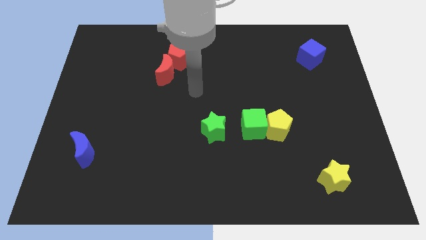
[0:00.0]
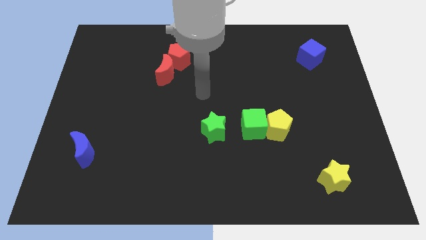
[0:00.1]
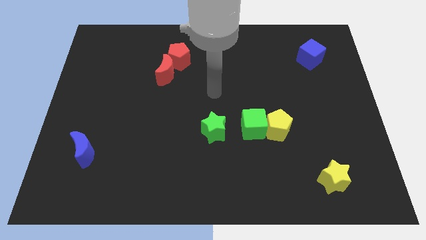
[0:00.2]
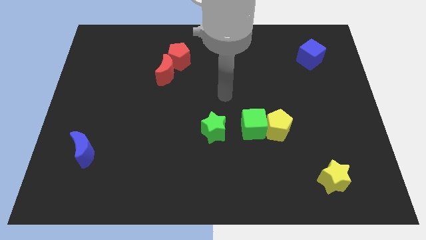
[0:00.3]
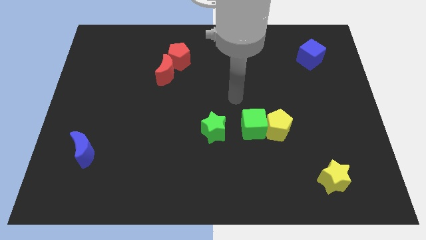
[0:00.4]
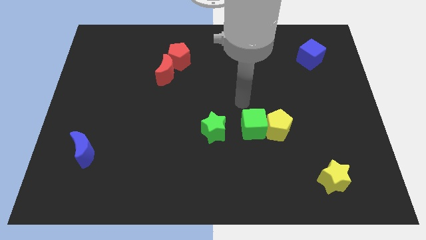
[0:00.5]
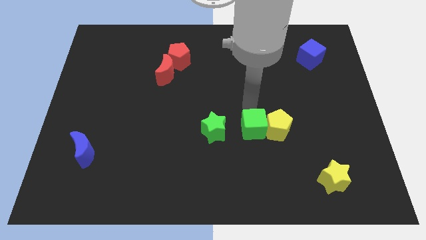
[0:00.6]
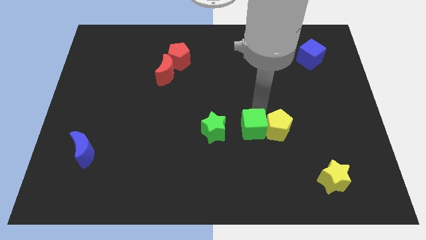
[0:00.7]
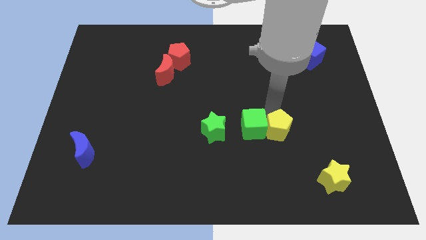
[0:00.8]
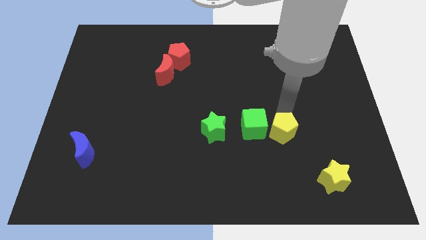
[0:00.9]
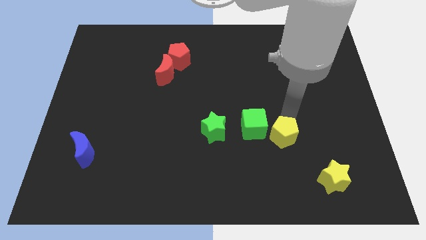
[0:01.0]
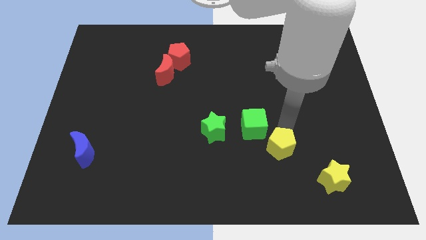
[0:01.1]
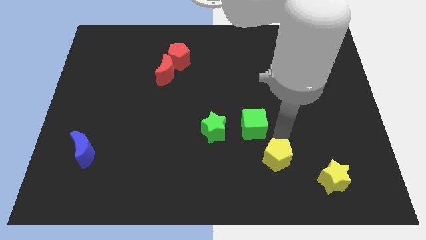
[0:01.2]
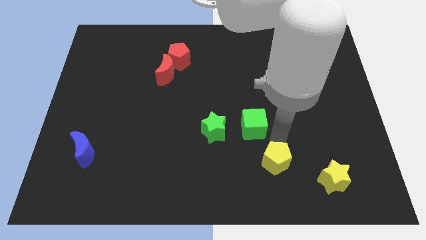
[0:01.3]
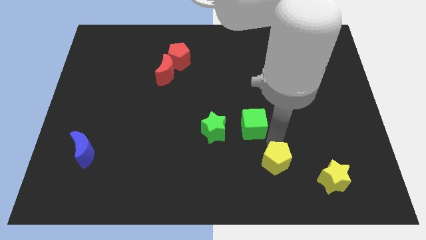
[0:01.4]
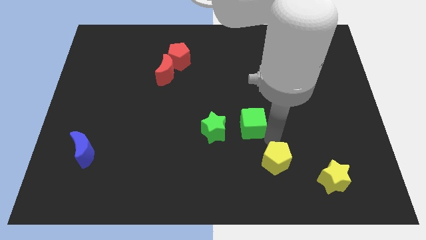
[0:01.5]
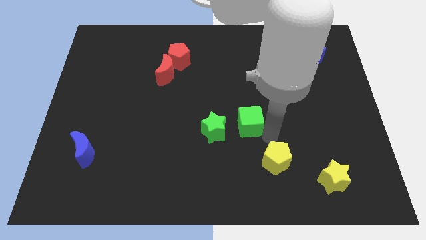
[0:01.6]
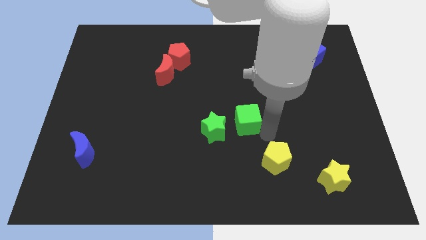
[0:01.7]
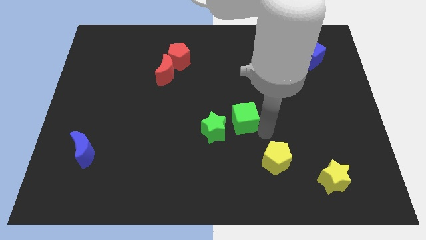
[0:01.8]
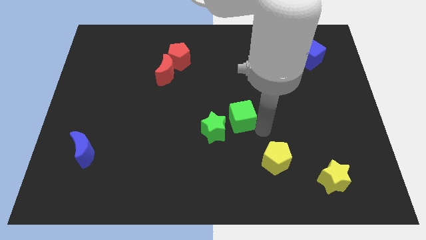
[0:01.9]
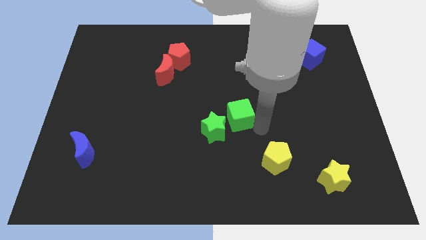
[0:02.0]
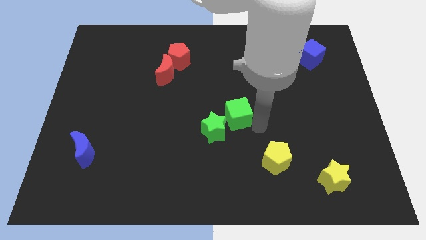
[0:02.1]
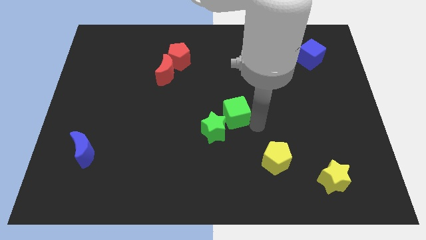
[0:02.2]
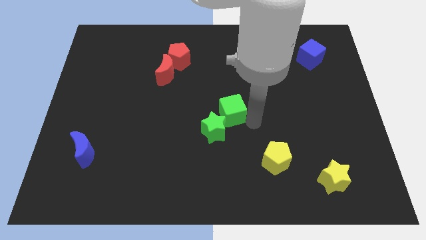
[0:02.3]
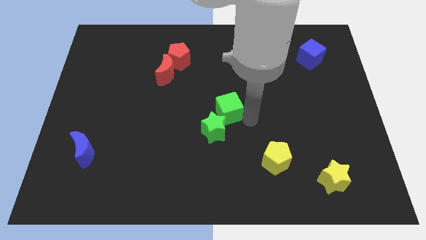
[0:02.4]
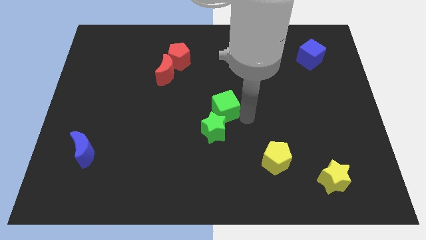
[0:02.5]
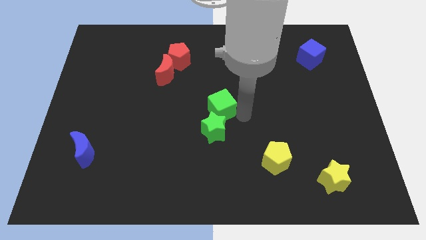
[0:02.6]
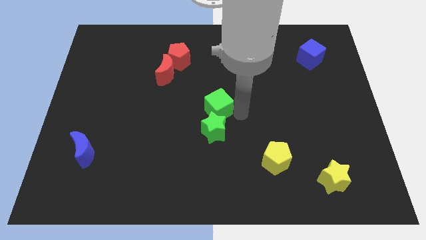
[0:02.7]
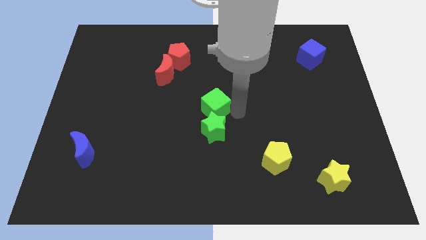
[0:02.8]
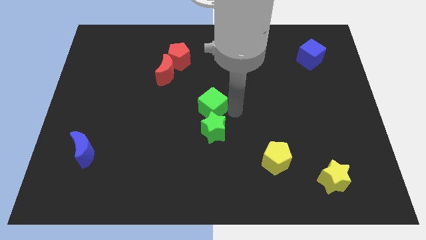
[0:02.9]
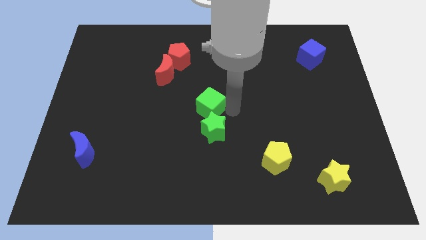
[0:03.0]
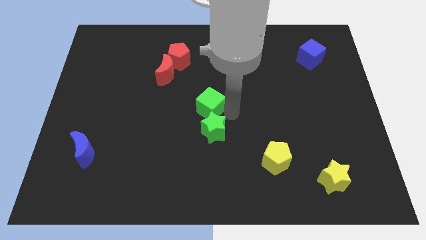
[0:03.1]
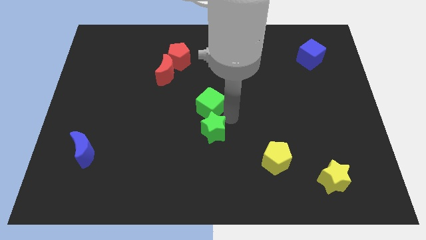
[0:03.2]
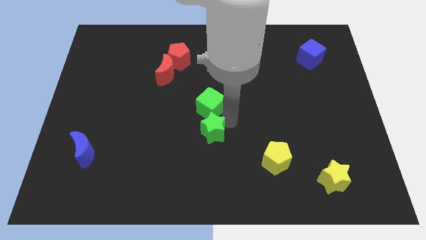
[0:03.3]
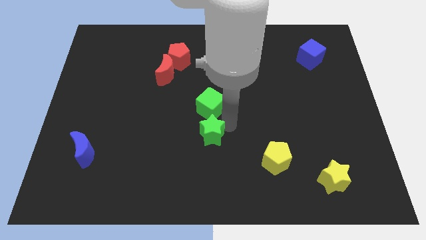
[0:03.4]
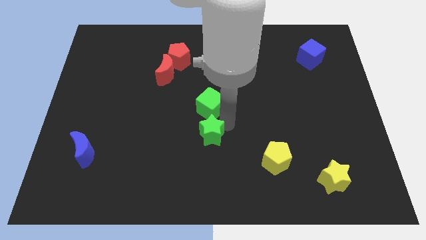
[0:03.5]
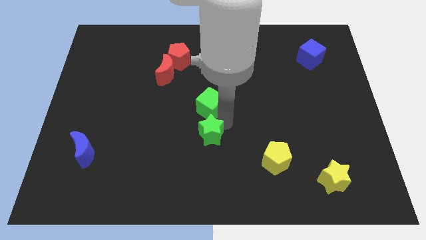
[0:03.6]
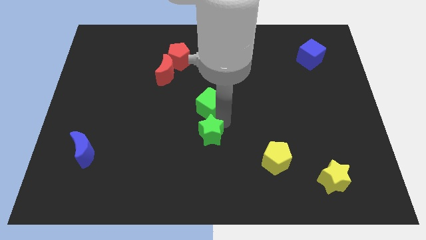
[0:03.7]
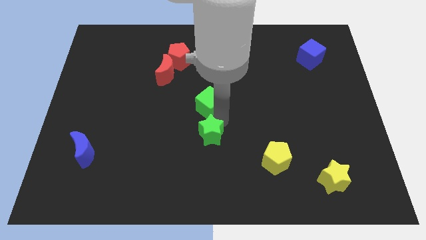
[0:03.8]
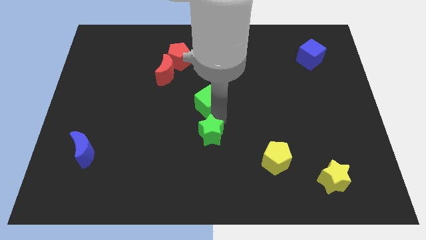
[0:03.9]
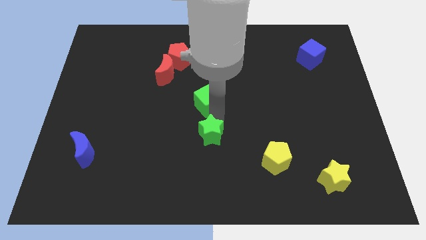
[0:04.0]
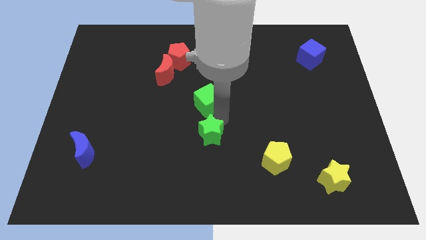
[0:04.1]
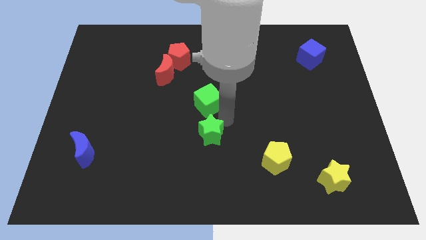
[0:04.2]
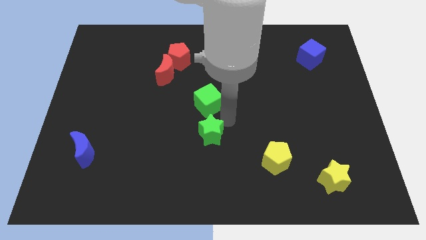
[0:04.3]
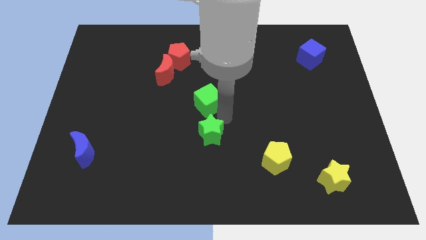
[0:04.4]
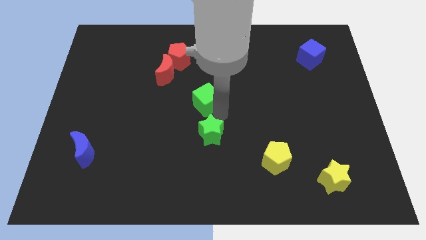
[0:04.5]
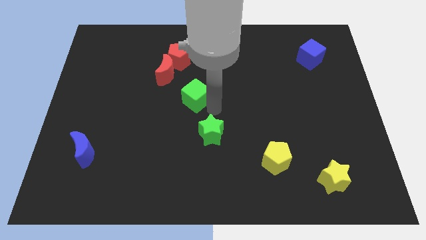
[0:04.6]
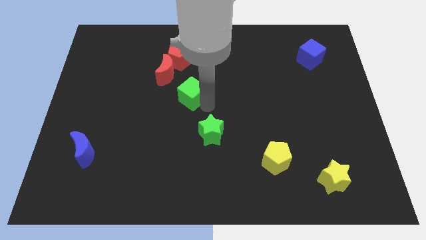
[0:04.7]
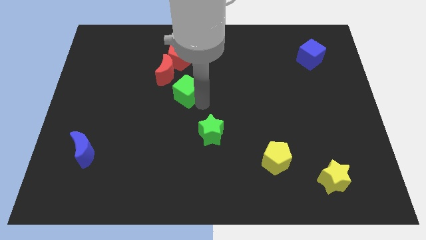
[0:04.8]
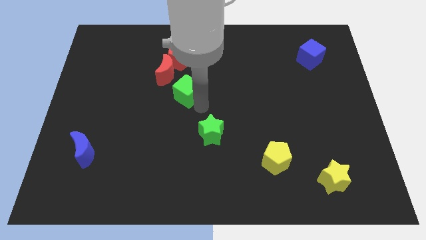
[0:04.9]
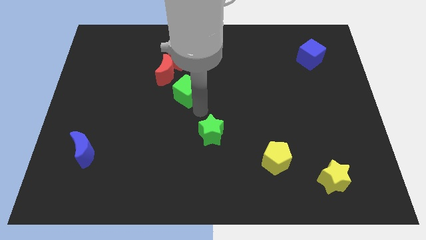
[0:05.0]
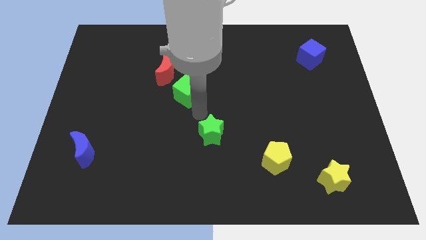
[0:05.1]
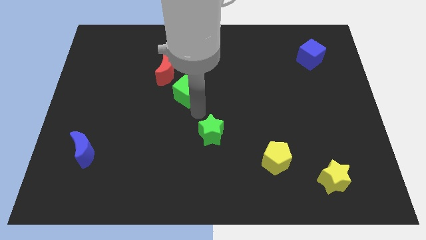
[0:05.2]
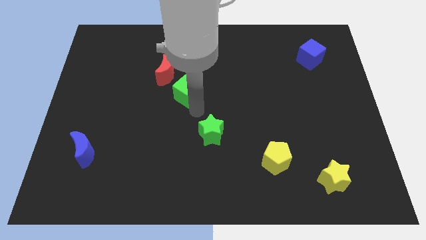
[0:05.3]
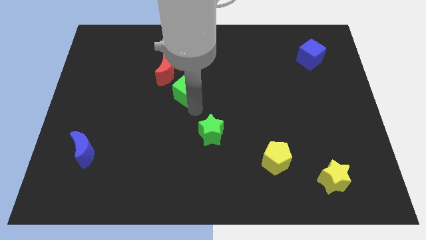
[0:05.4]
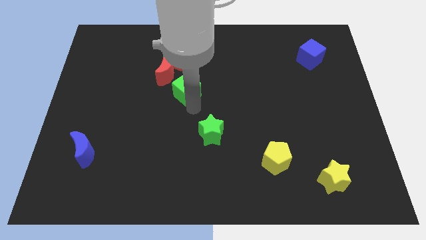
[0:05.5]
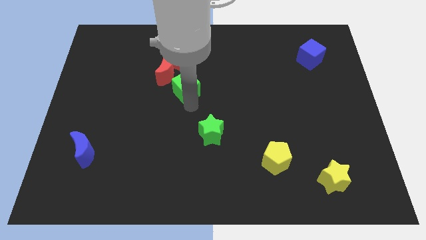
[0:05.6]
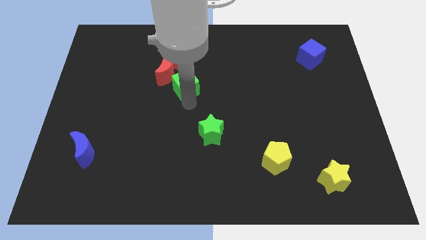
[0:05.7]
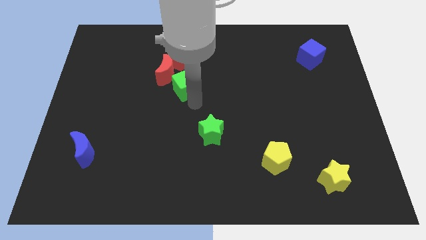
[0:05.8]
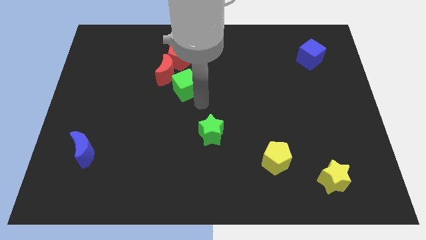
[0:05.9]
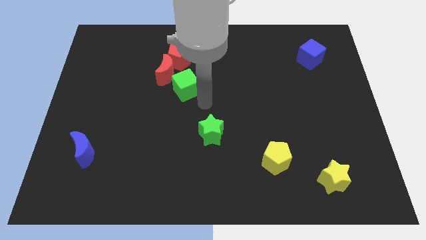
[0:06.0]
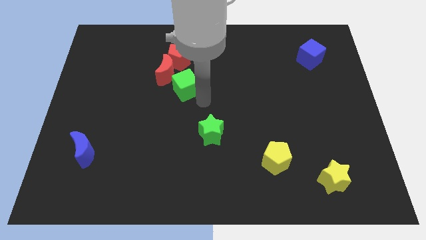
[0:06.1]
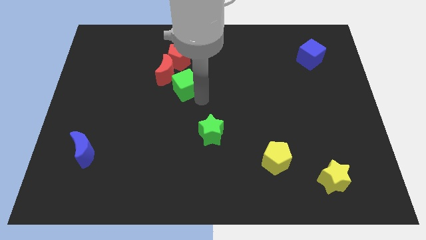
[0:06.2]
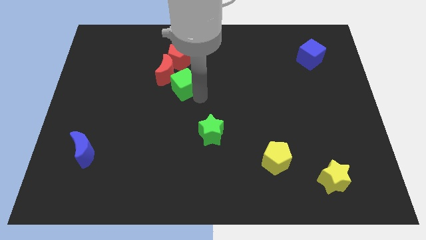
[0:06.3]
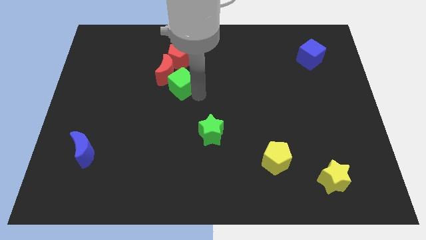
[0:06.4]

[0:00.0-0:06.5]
move the green cube towards the red moon

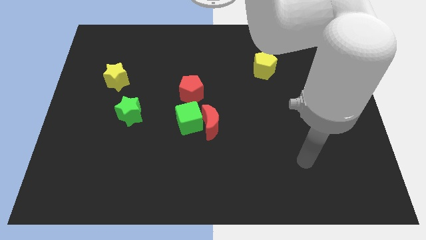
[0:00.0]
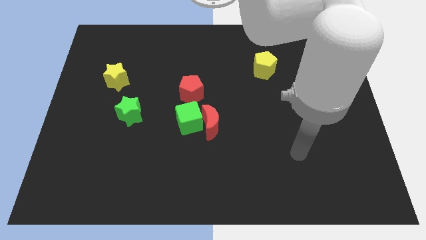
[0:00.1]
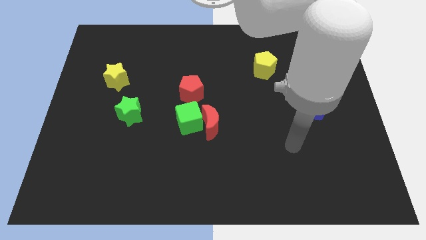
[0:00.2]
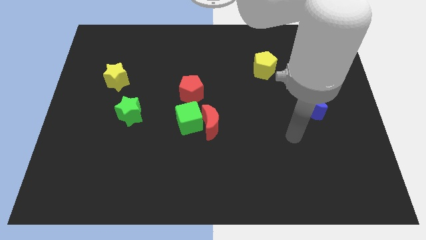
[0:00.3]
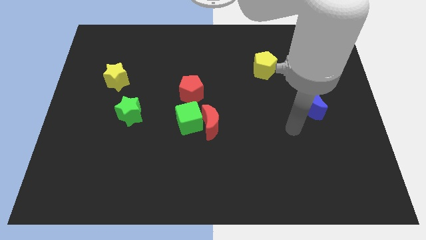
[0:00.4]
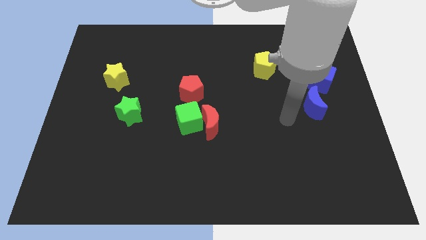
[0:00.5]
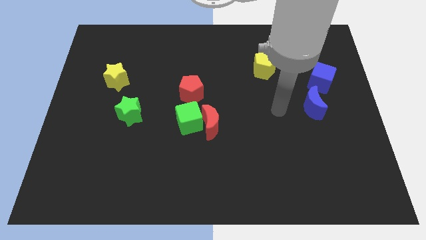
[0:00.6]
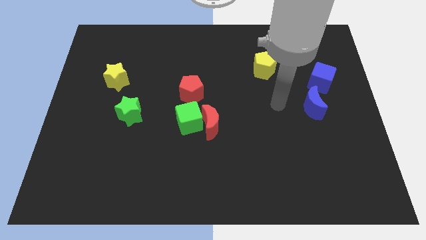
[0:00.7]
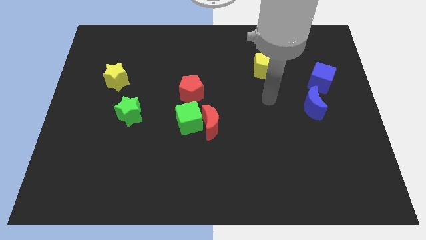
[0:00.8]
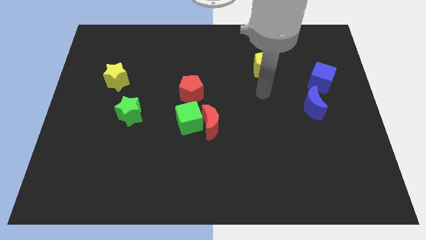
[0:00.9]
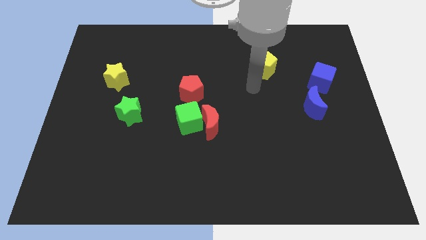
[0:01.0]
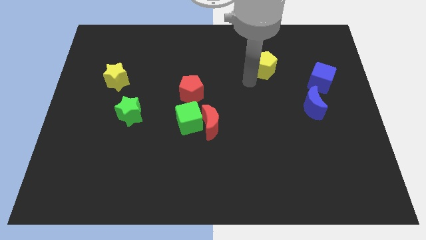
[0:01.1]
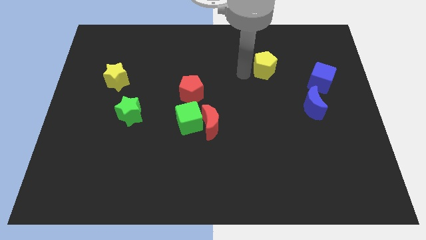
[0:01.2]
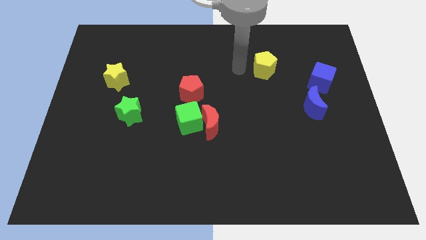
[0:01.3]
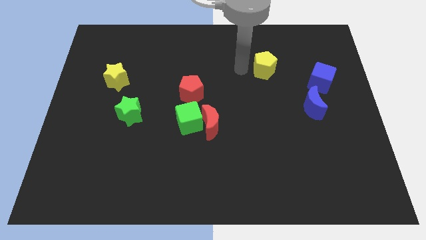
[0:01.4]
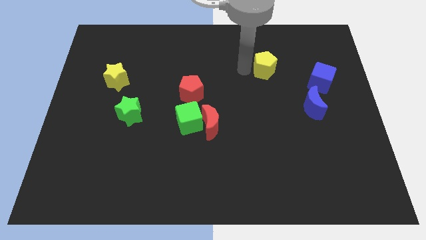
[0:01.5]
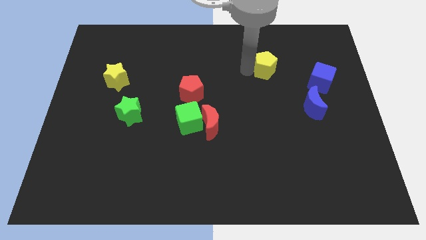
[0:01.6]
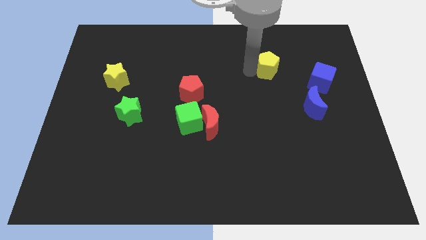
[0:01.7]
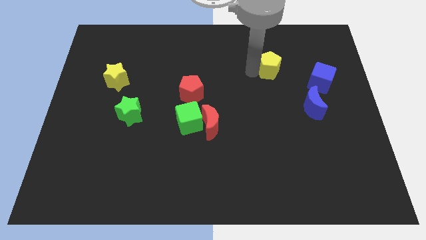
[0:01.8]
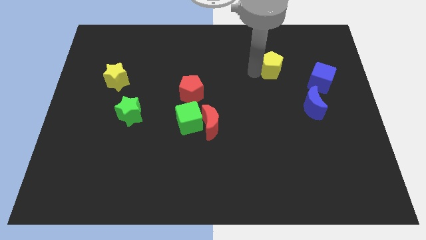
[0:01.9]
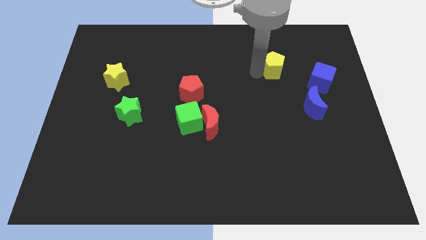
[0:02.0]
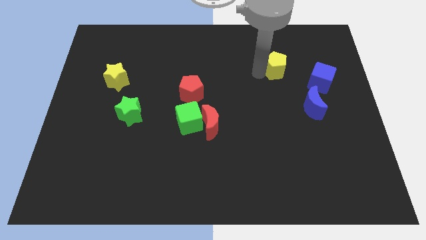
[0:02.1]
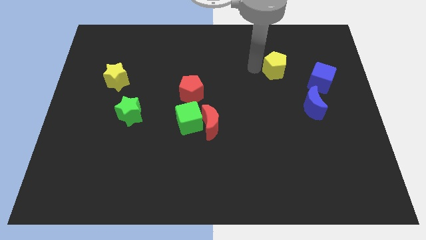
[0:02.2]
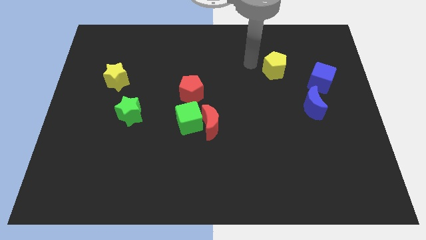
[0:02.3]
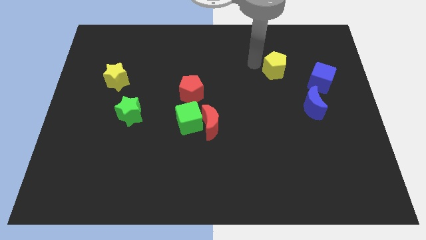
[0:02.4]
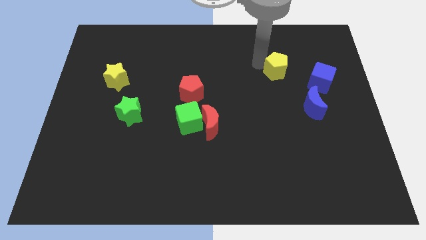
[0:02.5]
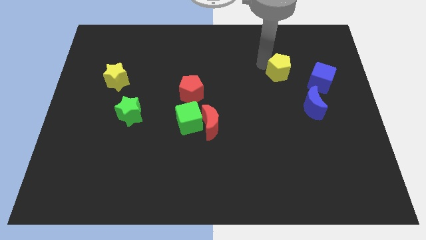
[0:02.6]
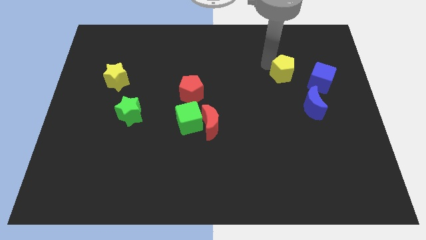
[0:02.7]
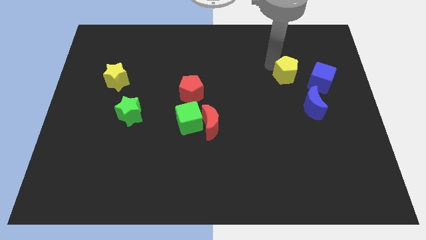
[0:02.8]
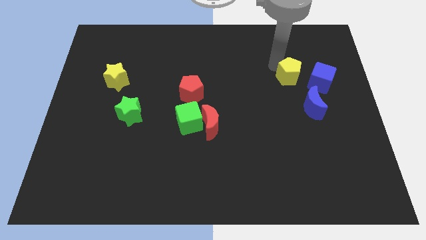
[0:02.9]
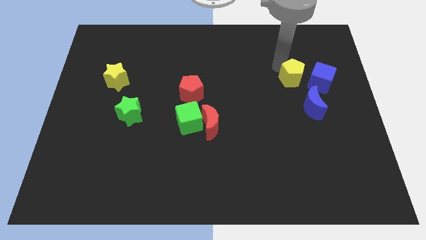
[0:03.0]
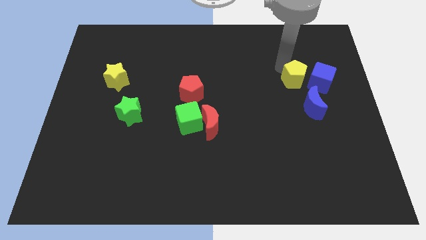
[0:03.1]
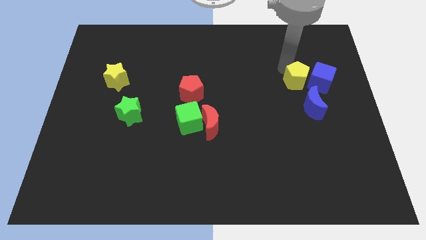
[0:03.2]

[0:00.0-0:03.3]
move the yellow pentagon towards the blue cube
